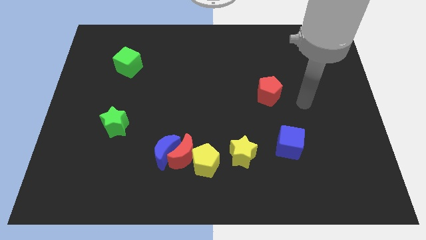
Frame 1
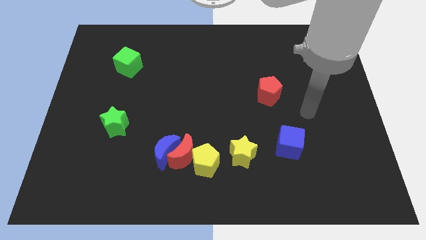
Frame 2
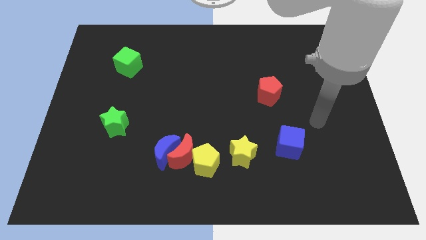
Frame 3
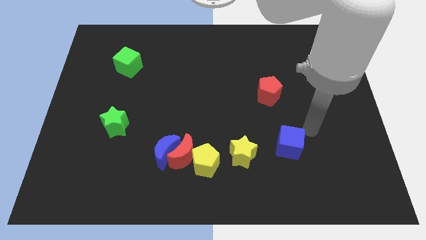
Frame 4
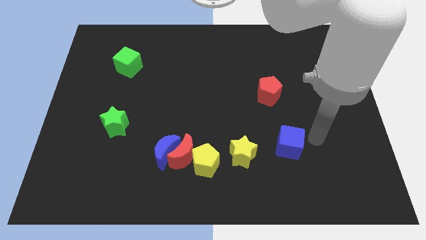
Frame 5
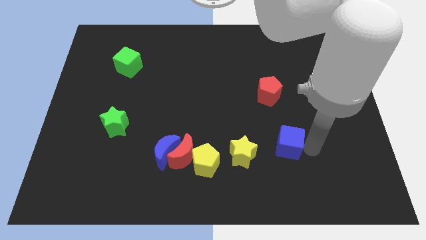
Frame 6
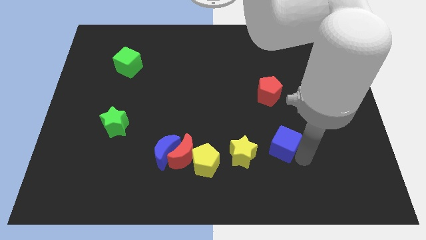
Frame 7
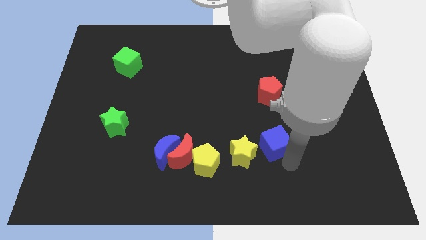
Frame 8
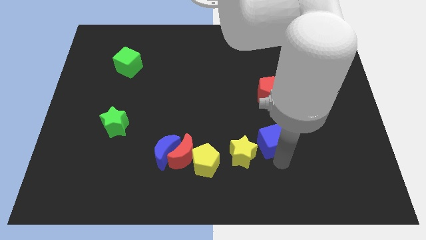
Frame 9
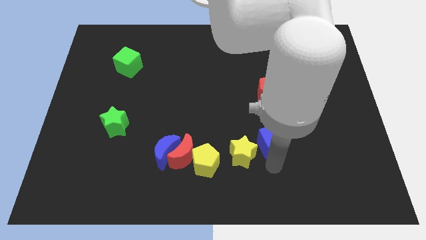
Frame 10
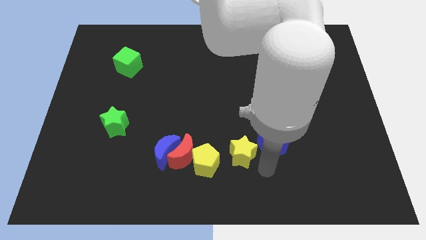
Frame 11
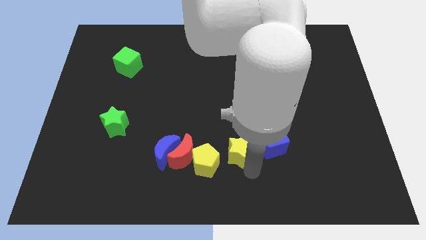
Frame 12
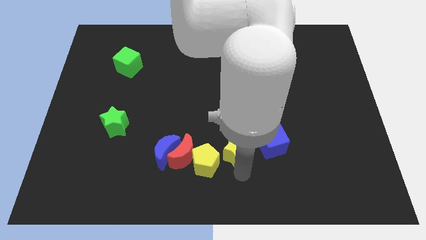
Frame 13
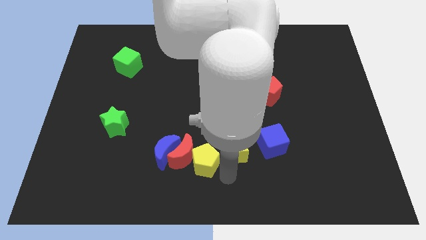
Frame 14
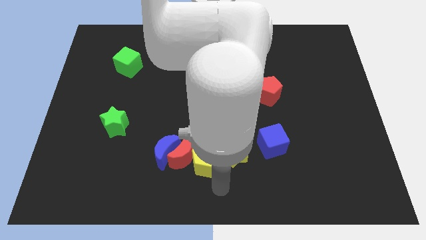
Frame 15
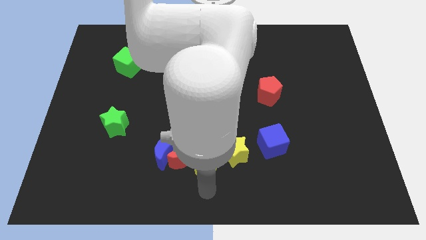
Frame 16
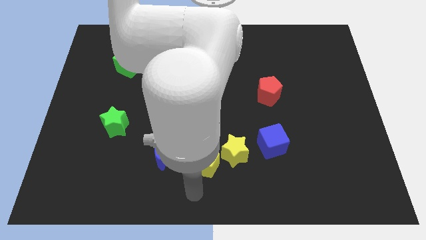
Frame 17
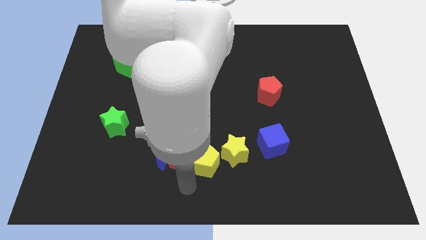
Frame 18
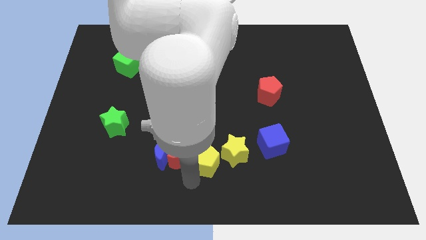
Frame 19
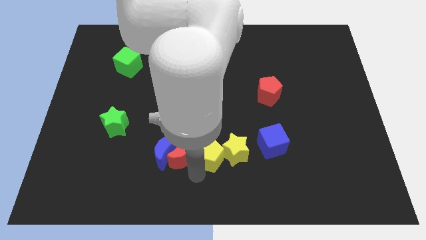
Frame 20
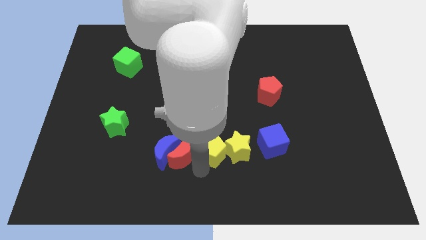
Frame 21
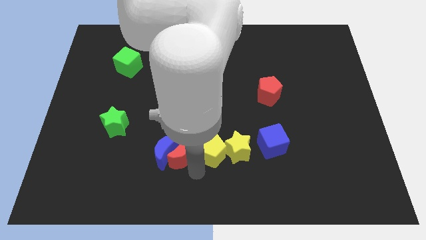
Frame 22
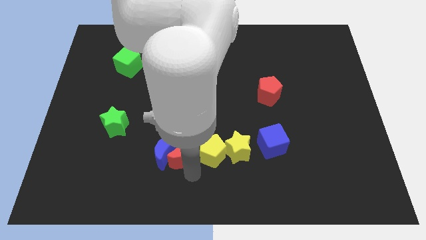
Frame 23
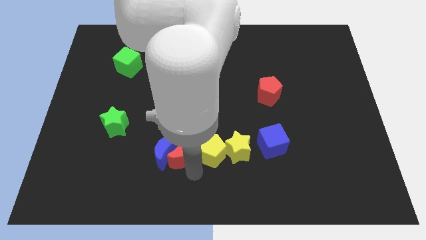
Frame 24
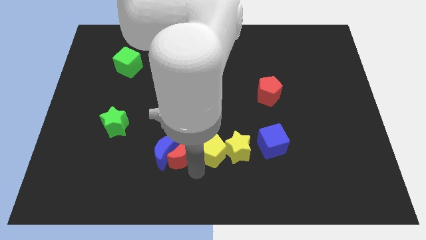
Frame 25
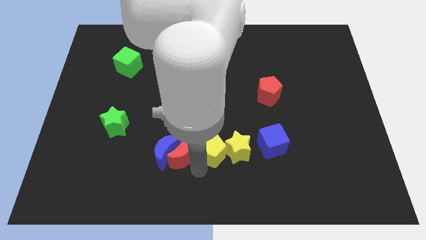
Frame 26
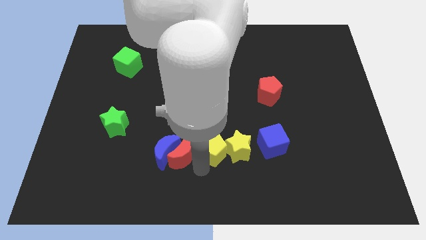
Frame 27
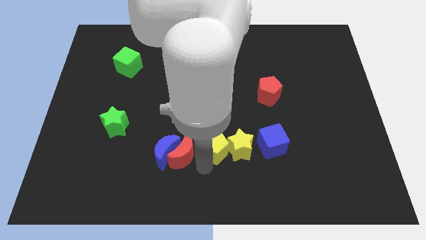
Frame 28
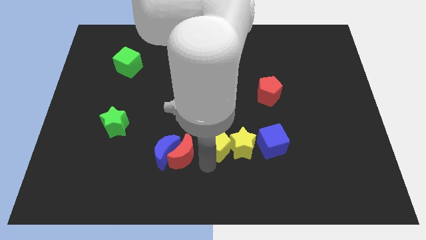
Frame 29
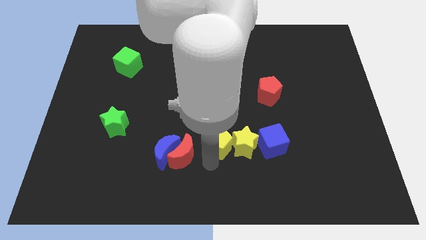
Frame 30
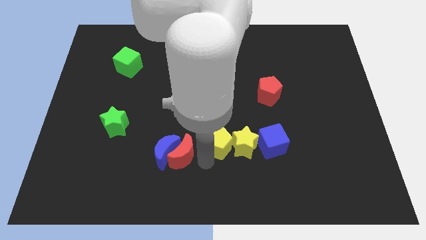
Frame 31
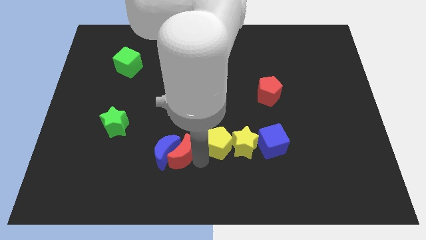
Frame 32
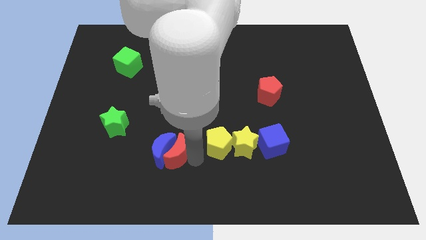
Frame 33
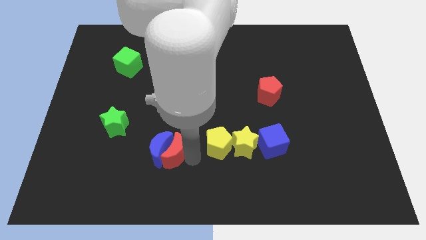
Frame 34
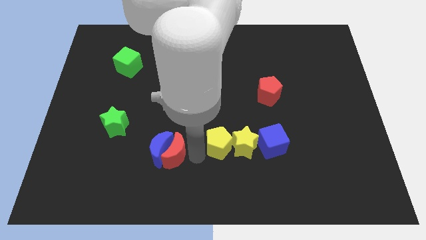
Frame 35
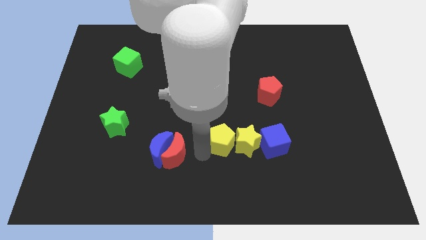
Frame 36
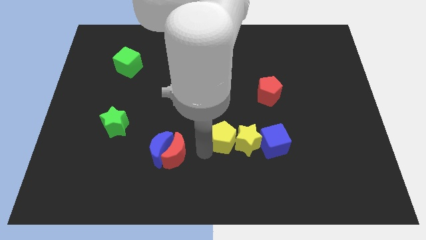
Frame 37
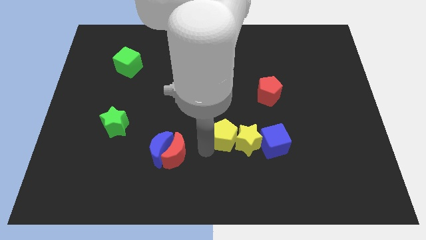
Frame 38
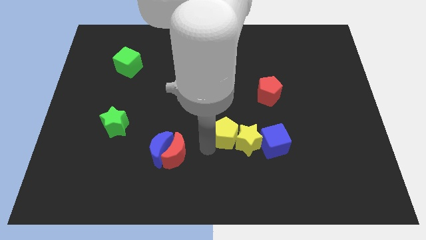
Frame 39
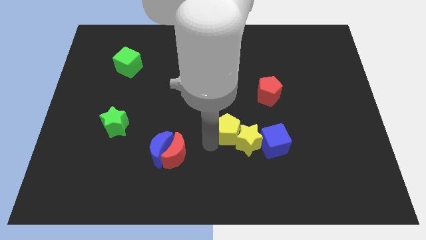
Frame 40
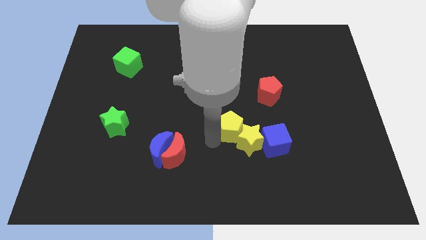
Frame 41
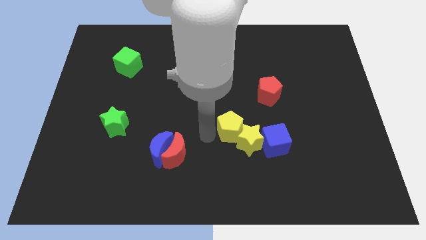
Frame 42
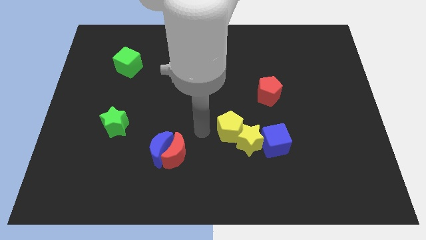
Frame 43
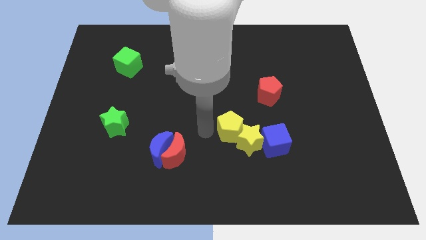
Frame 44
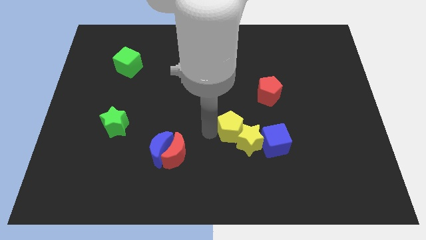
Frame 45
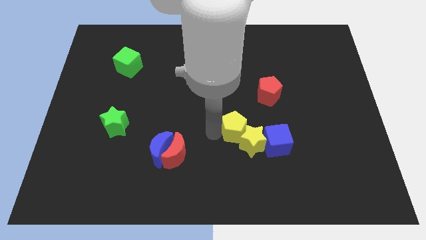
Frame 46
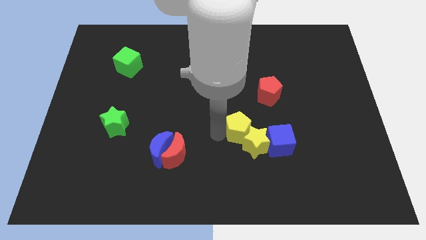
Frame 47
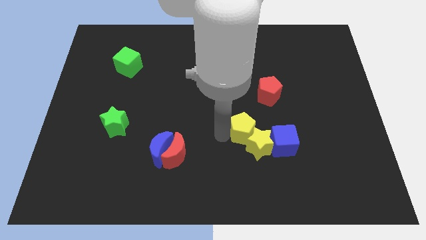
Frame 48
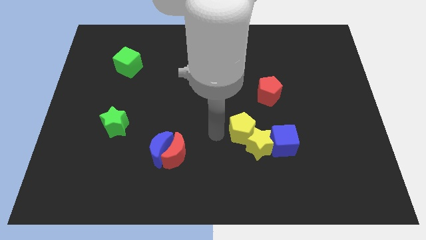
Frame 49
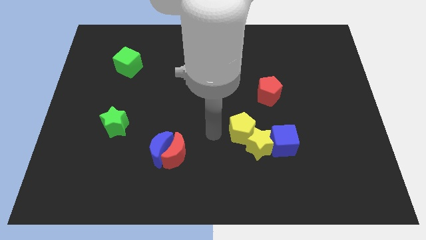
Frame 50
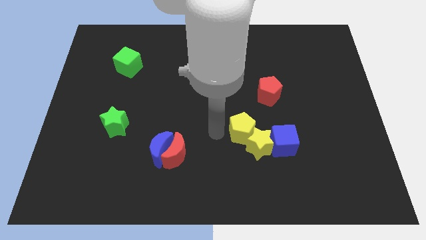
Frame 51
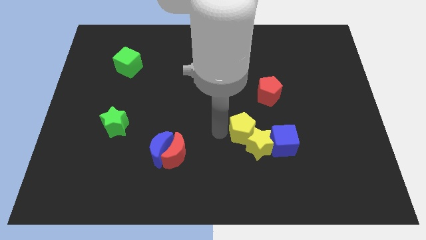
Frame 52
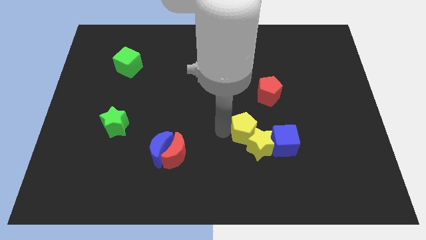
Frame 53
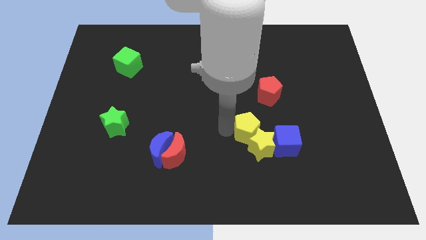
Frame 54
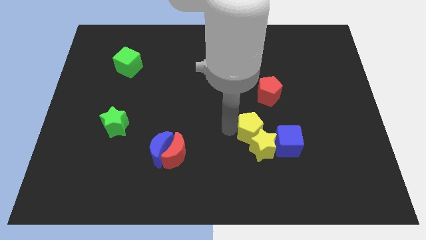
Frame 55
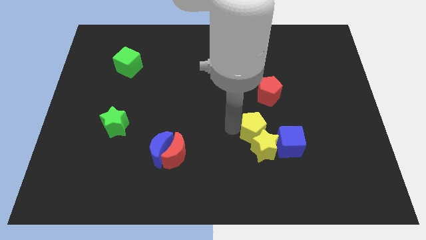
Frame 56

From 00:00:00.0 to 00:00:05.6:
put the yellow pentagon to the bottom side of the red pentagon

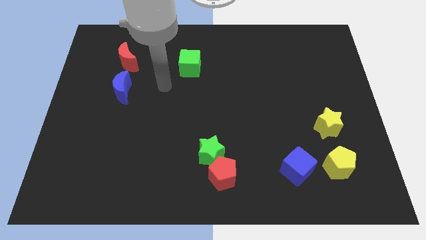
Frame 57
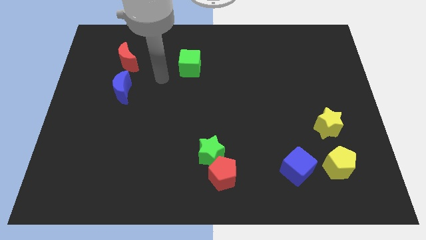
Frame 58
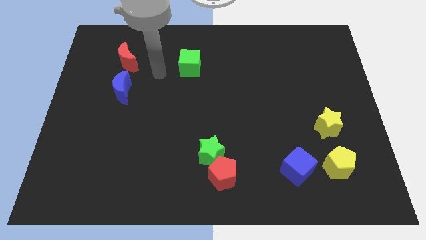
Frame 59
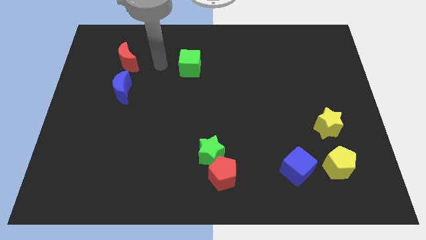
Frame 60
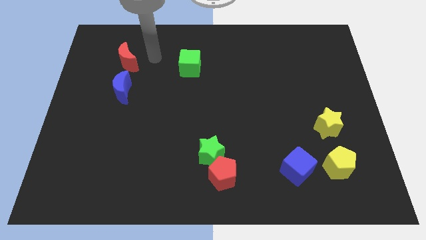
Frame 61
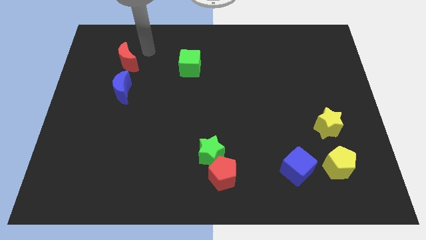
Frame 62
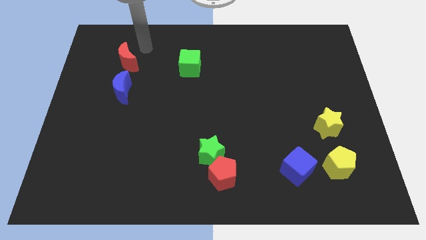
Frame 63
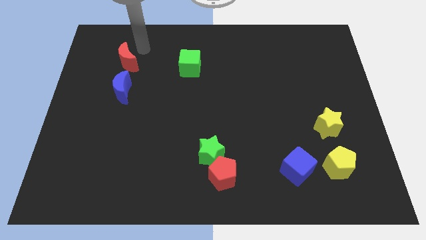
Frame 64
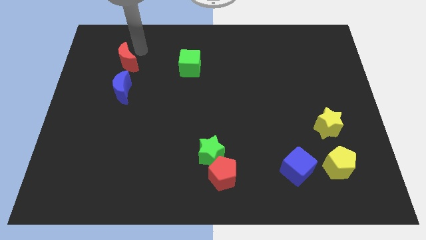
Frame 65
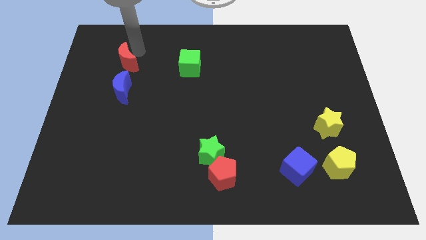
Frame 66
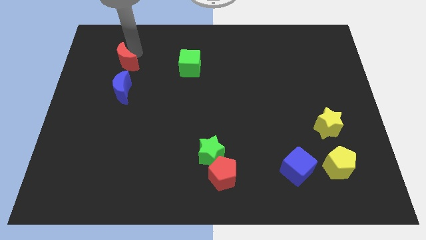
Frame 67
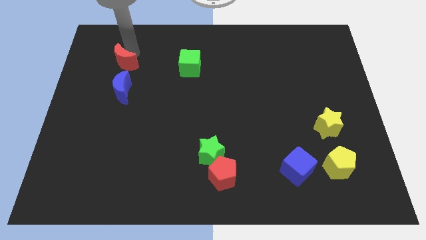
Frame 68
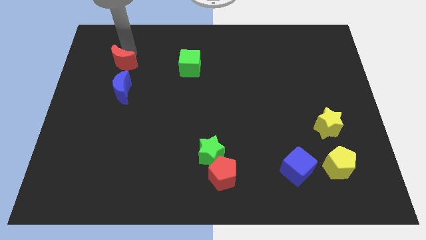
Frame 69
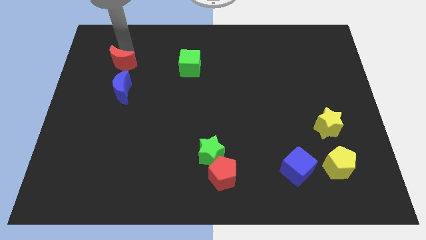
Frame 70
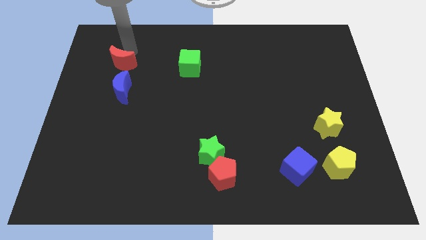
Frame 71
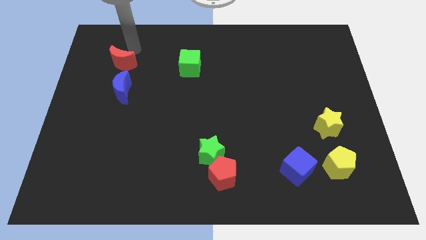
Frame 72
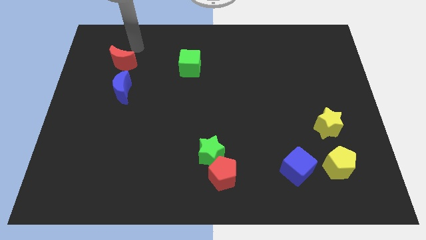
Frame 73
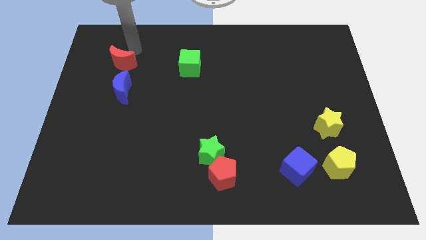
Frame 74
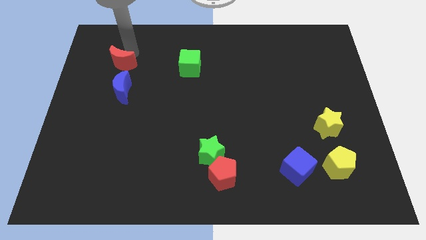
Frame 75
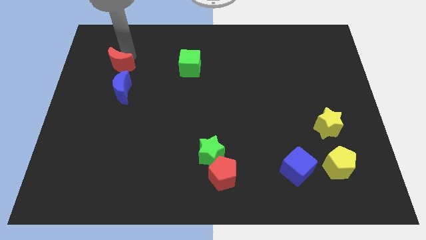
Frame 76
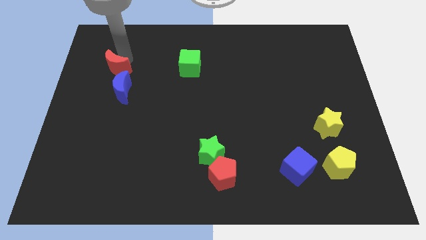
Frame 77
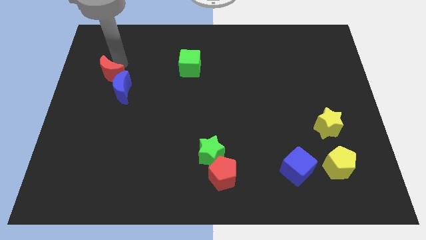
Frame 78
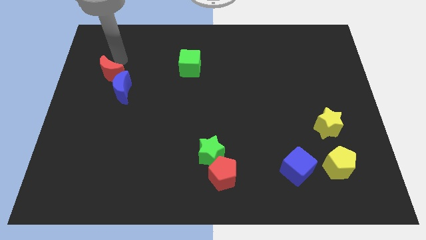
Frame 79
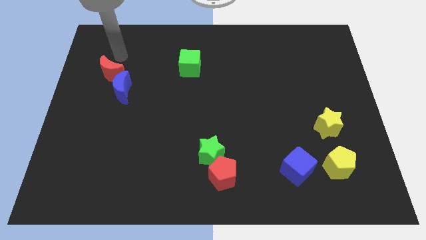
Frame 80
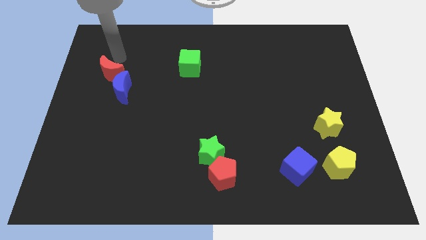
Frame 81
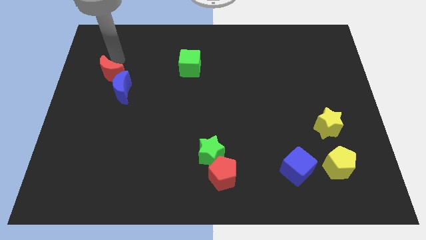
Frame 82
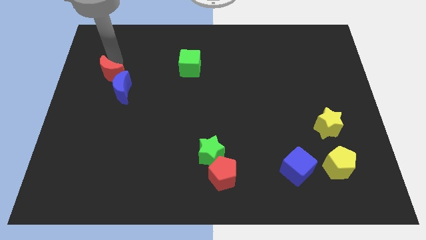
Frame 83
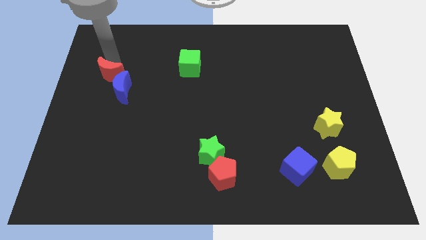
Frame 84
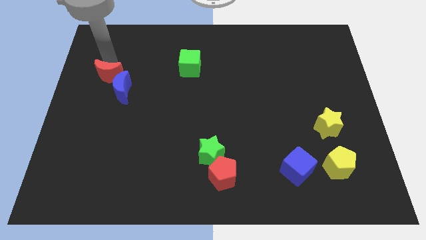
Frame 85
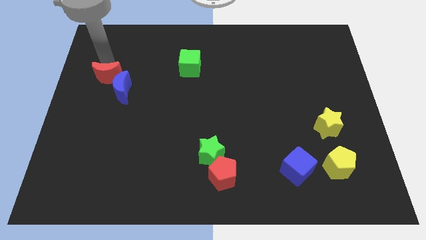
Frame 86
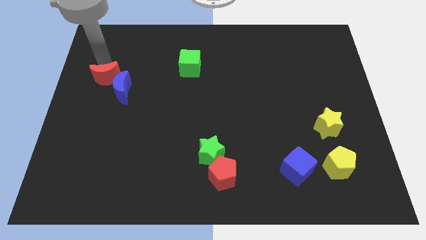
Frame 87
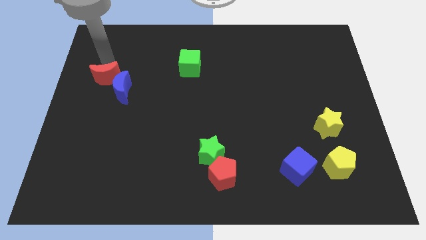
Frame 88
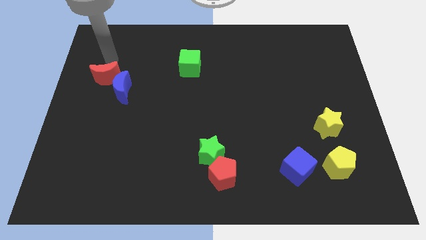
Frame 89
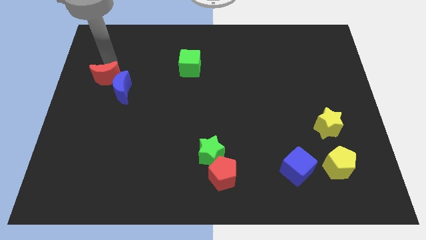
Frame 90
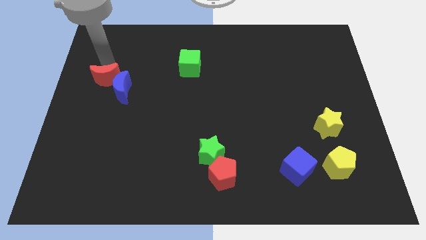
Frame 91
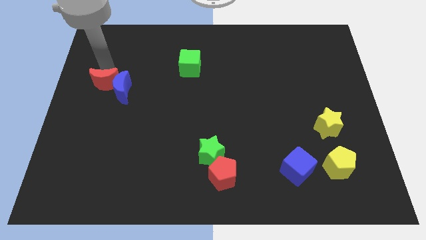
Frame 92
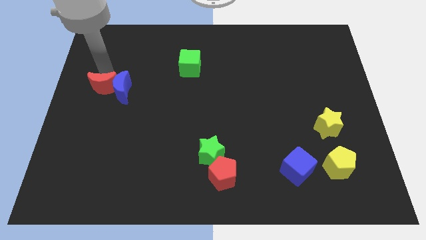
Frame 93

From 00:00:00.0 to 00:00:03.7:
slide the red moon to the bottom left side of the blue moon
